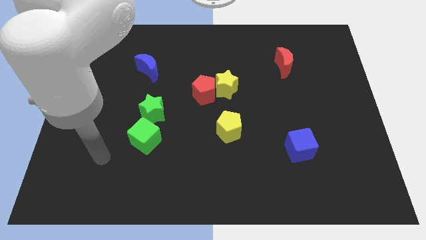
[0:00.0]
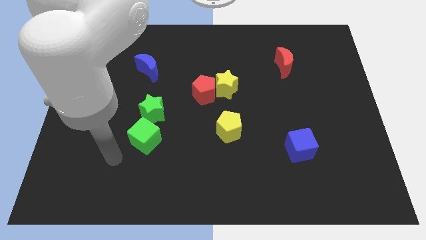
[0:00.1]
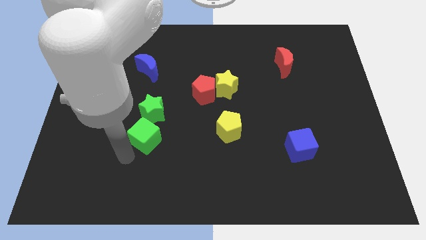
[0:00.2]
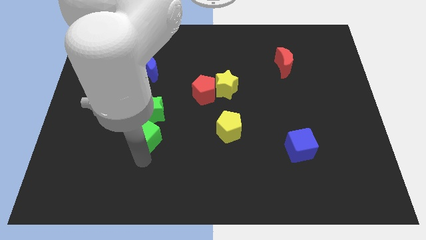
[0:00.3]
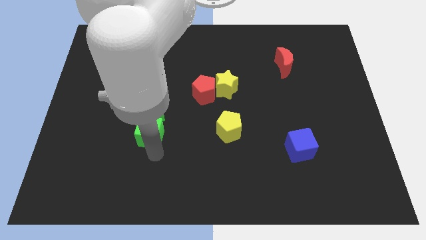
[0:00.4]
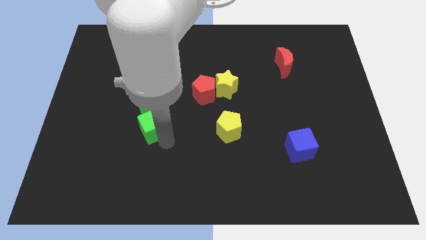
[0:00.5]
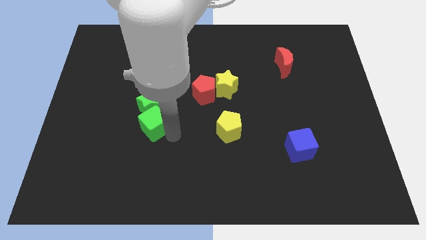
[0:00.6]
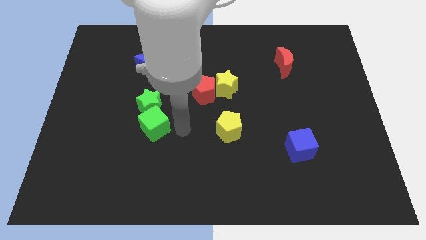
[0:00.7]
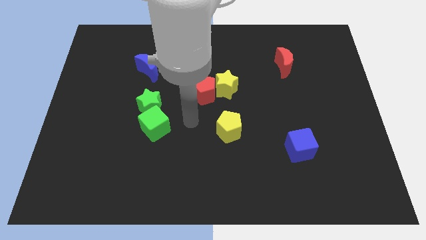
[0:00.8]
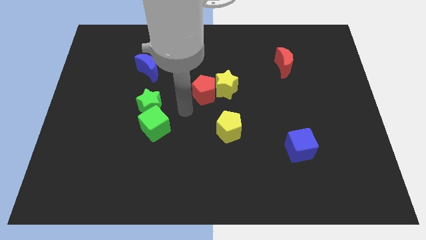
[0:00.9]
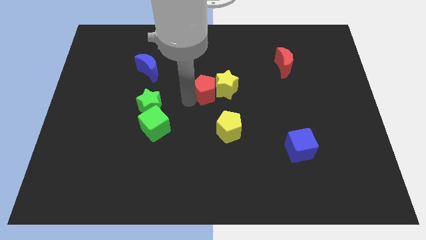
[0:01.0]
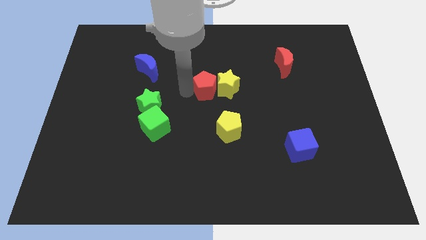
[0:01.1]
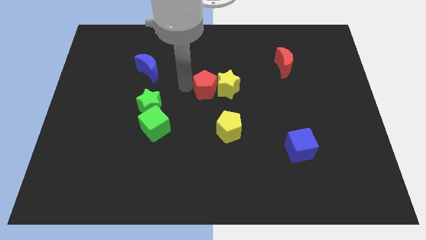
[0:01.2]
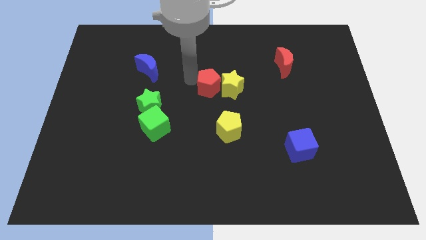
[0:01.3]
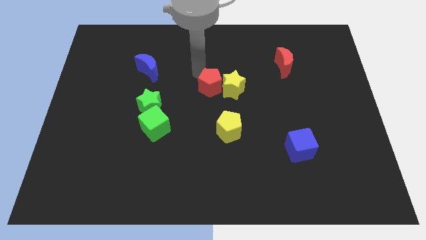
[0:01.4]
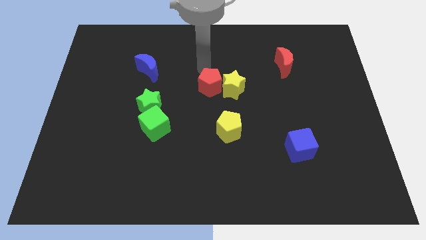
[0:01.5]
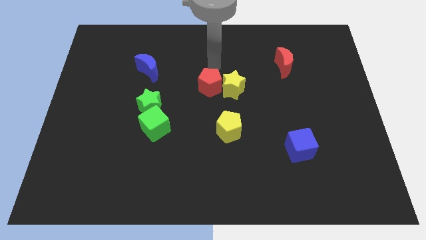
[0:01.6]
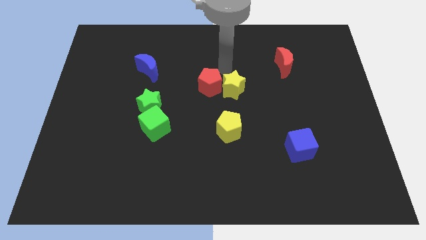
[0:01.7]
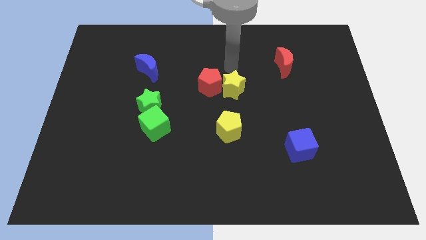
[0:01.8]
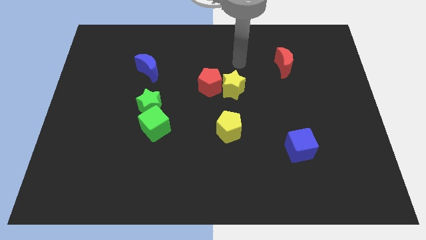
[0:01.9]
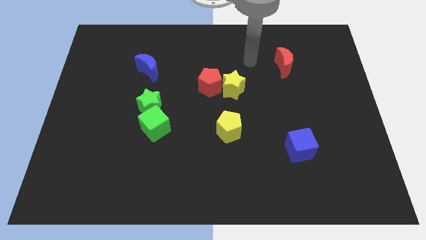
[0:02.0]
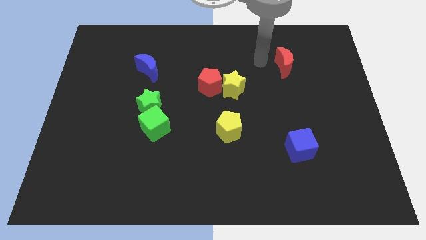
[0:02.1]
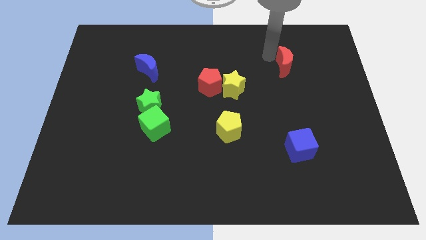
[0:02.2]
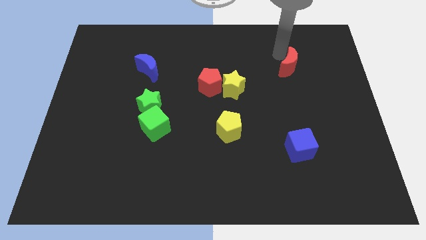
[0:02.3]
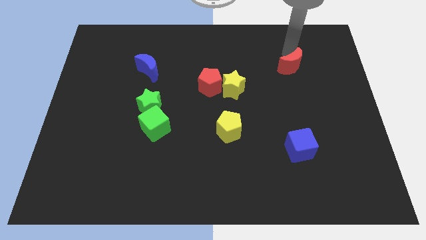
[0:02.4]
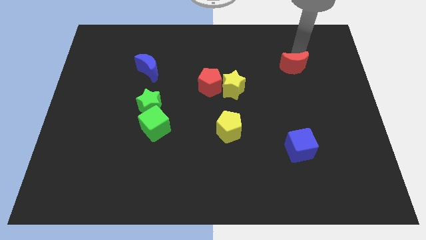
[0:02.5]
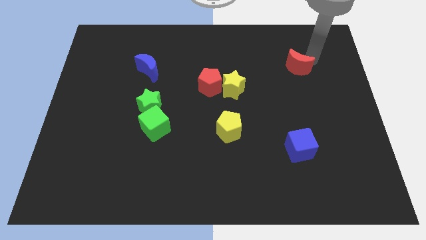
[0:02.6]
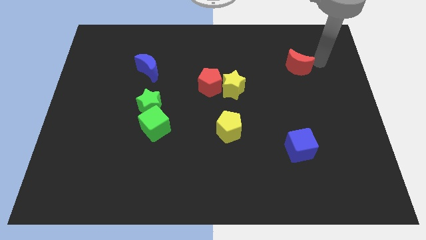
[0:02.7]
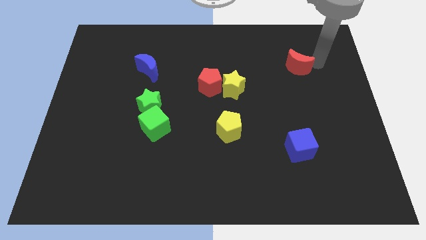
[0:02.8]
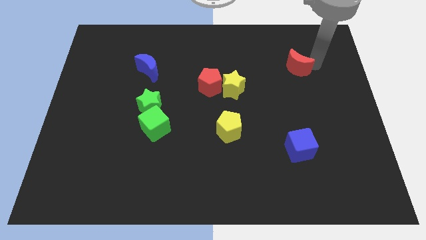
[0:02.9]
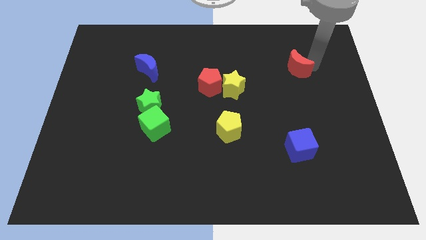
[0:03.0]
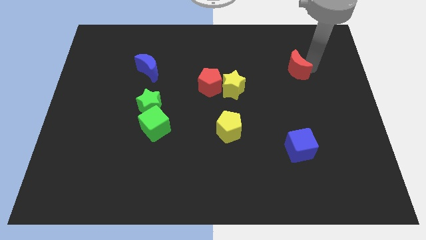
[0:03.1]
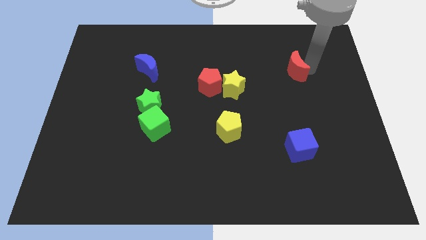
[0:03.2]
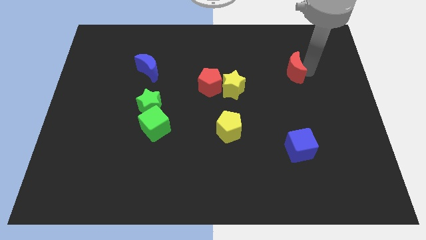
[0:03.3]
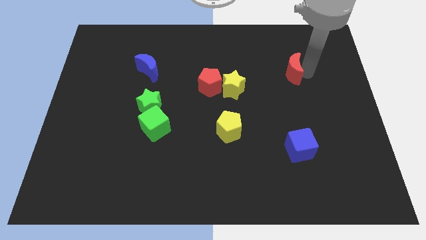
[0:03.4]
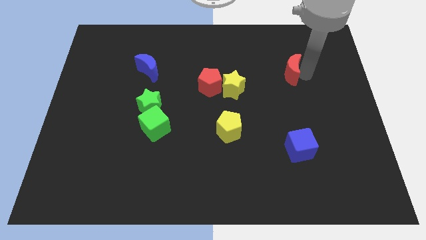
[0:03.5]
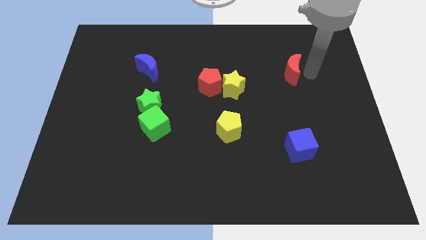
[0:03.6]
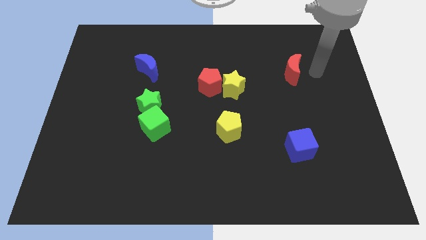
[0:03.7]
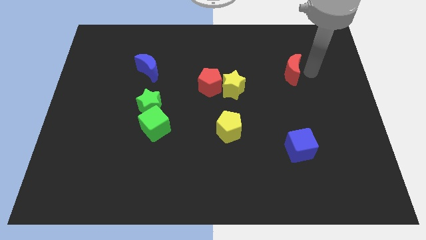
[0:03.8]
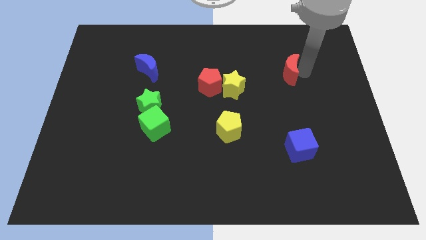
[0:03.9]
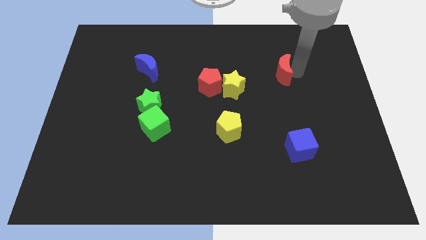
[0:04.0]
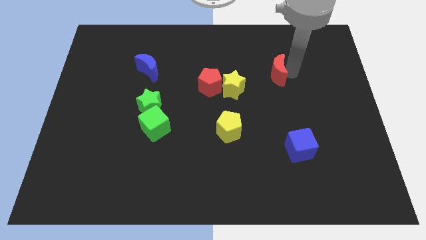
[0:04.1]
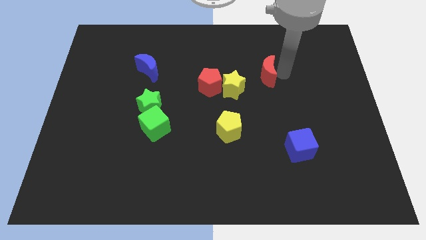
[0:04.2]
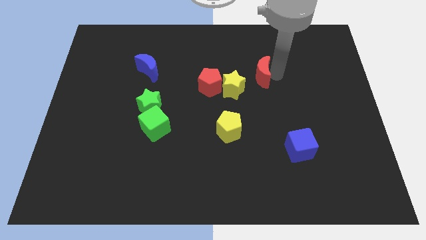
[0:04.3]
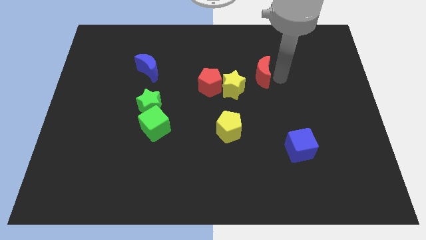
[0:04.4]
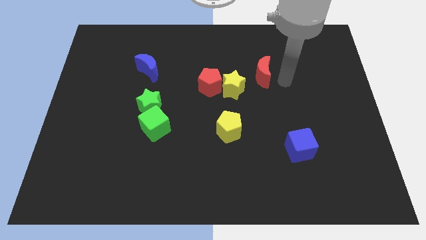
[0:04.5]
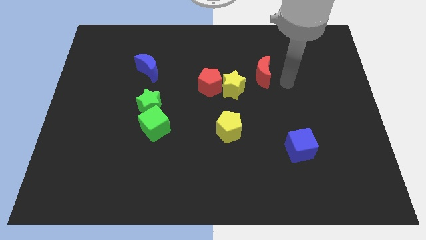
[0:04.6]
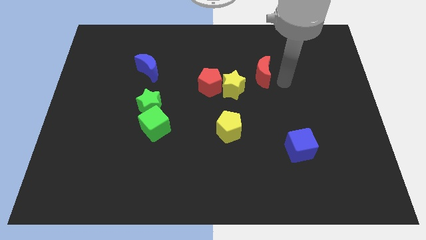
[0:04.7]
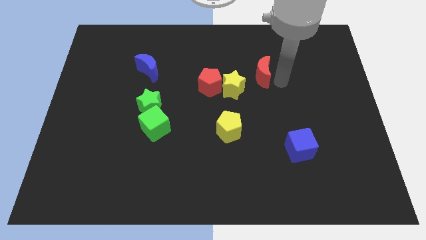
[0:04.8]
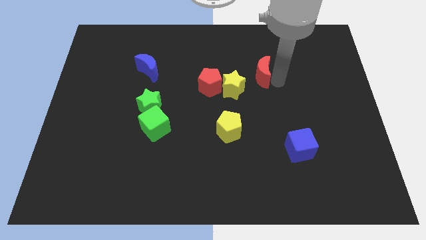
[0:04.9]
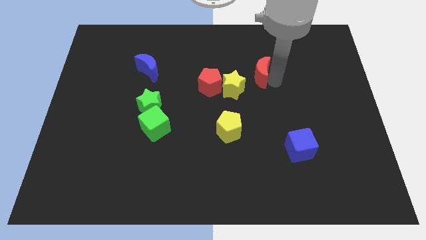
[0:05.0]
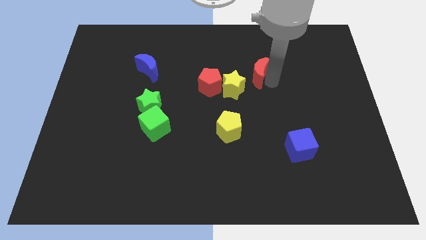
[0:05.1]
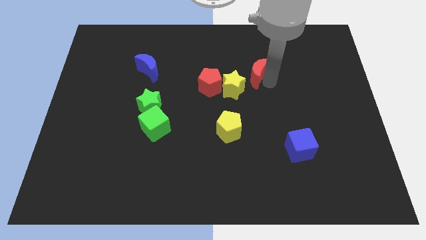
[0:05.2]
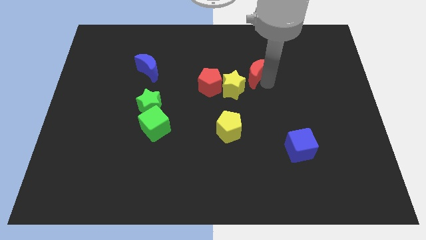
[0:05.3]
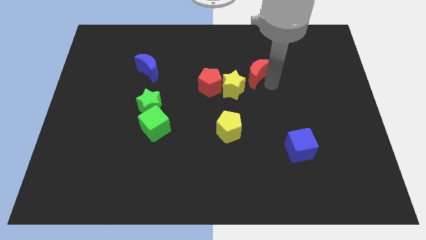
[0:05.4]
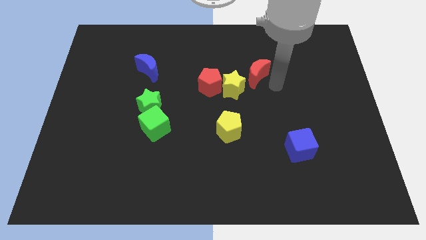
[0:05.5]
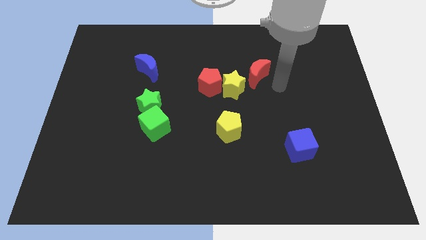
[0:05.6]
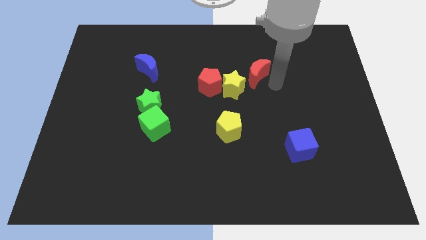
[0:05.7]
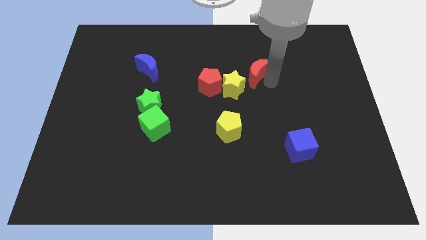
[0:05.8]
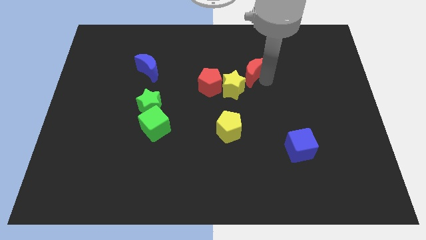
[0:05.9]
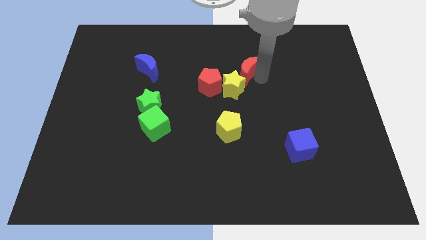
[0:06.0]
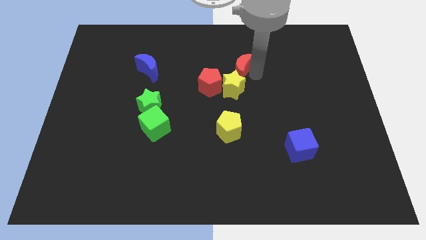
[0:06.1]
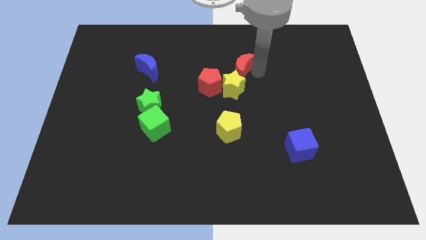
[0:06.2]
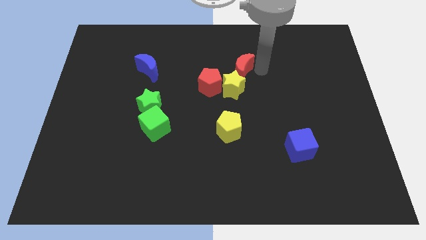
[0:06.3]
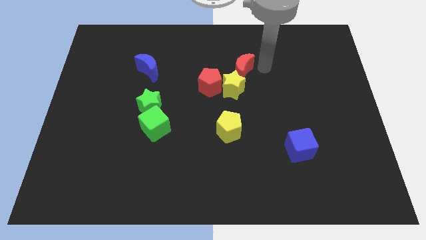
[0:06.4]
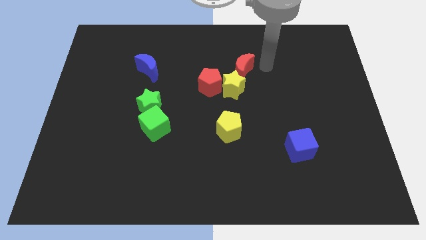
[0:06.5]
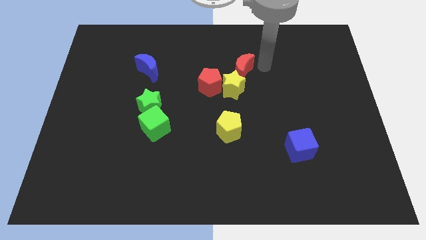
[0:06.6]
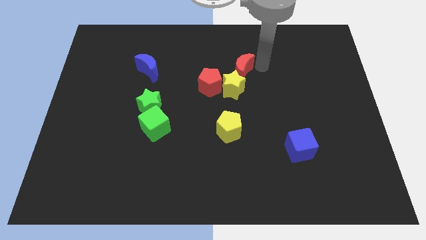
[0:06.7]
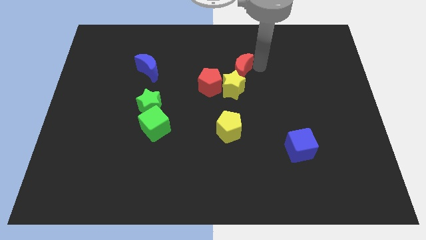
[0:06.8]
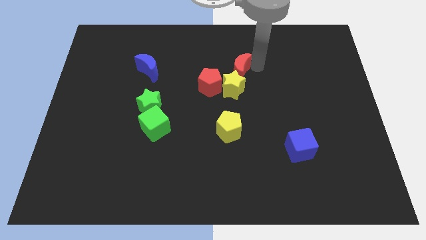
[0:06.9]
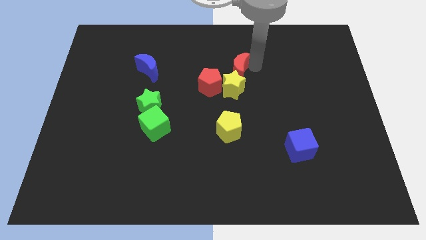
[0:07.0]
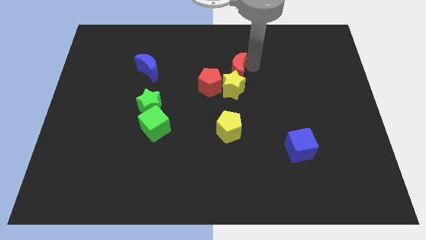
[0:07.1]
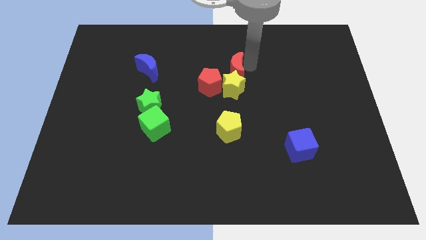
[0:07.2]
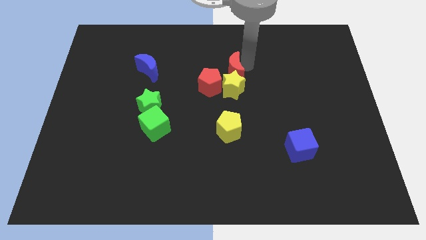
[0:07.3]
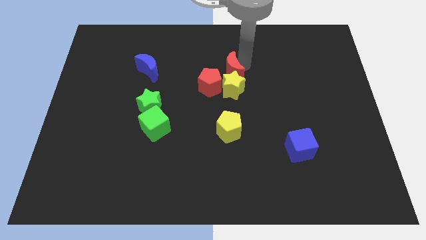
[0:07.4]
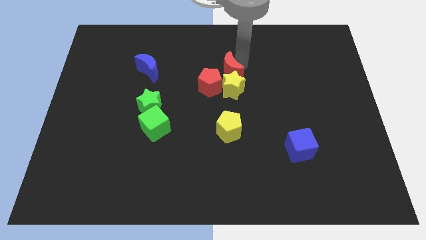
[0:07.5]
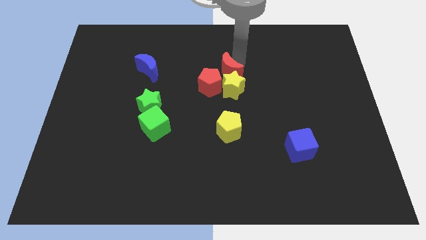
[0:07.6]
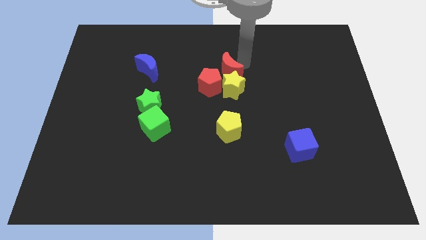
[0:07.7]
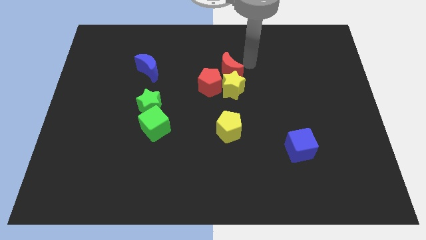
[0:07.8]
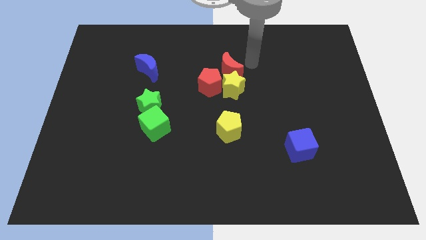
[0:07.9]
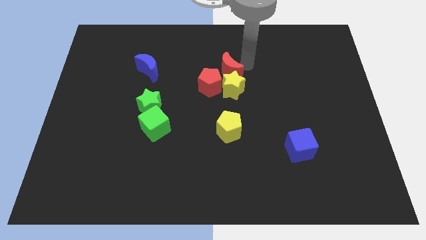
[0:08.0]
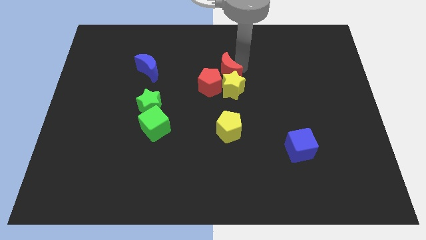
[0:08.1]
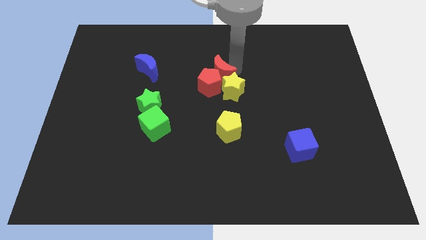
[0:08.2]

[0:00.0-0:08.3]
push the red moon next to the red pentagon

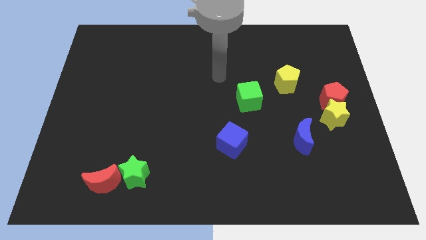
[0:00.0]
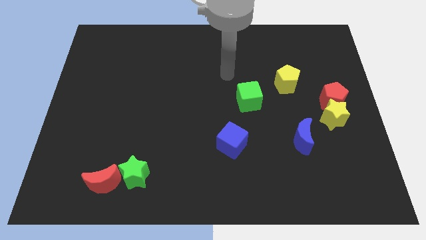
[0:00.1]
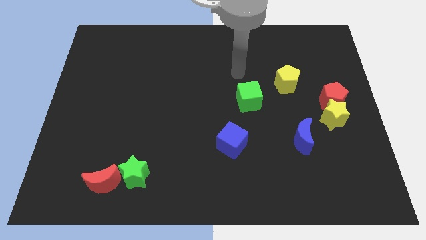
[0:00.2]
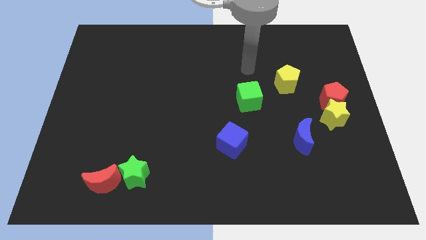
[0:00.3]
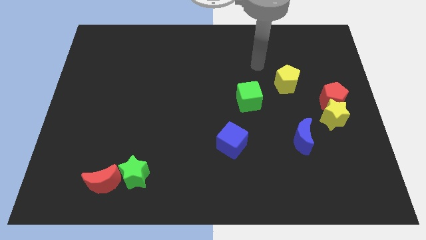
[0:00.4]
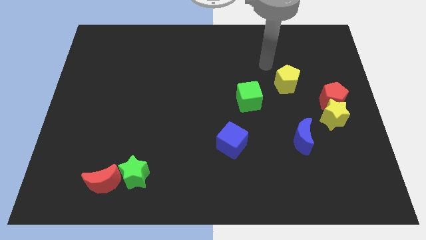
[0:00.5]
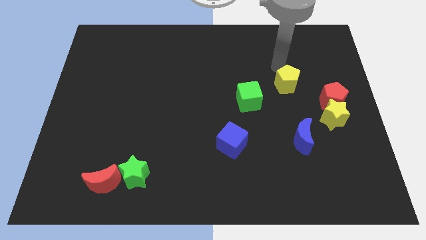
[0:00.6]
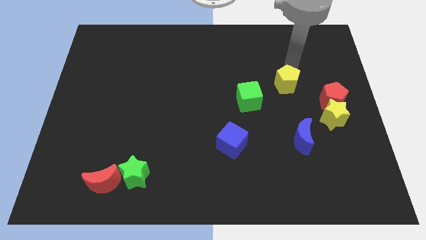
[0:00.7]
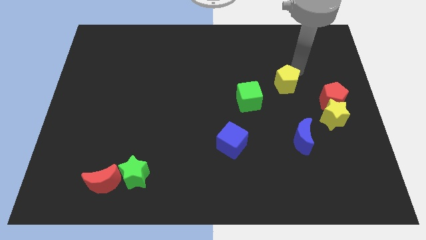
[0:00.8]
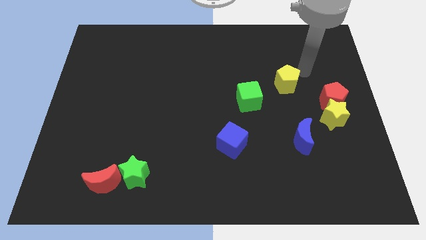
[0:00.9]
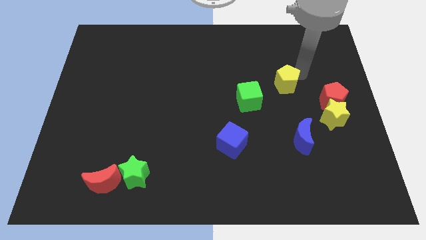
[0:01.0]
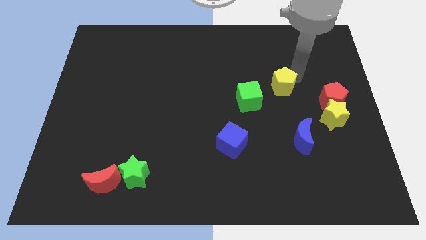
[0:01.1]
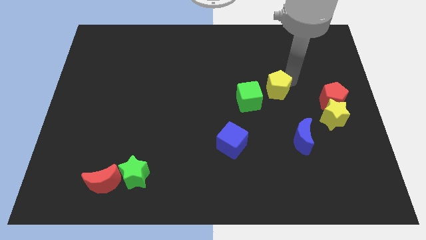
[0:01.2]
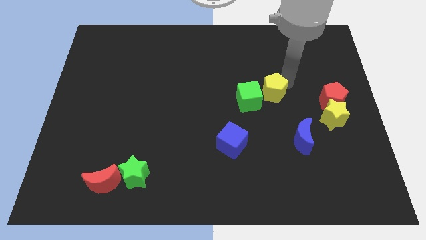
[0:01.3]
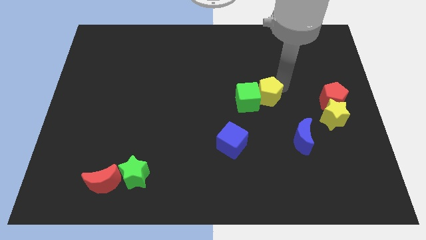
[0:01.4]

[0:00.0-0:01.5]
put the yellow pentagon next to the green cube
